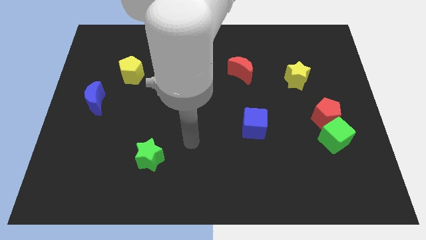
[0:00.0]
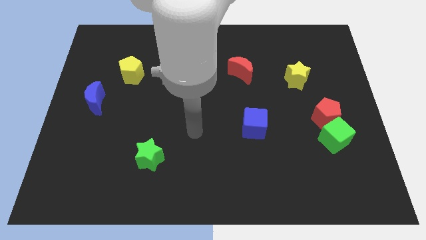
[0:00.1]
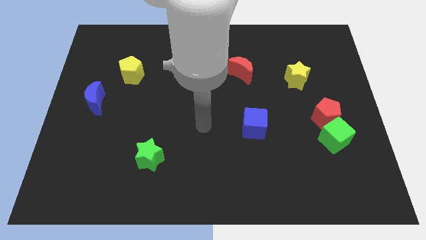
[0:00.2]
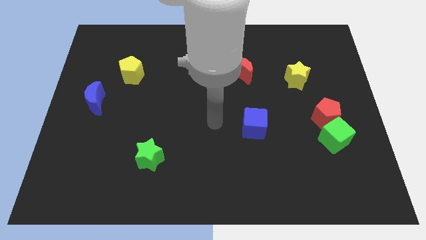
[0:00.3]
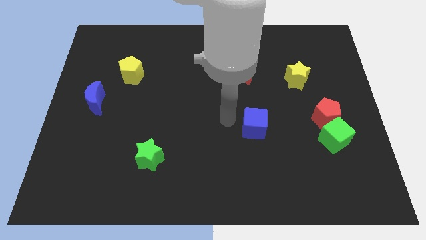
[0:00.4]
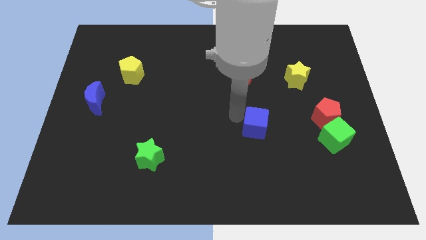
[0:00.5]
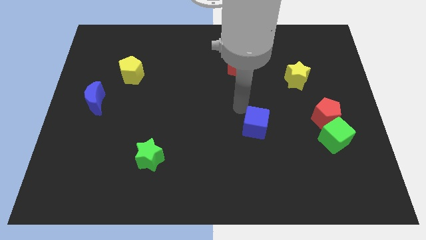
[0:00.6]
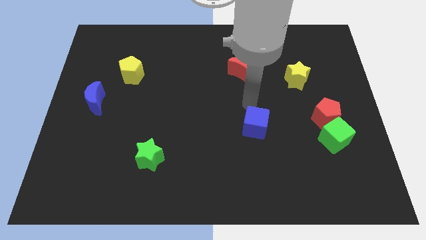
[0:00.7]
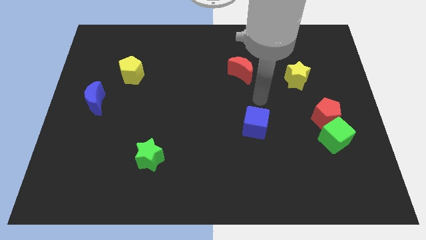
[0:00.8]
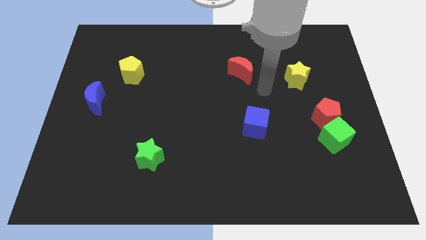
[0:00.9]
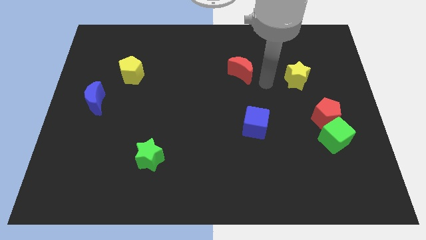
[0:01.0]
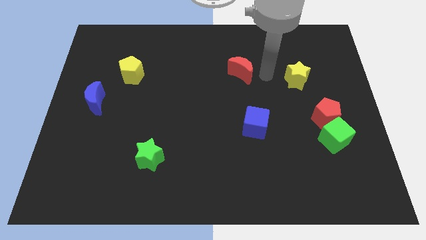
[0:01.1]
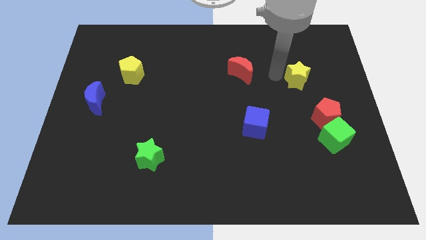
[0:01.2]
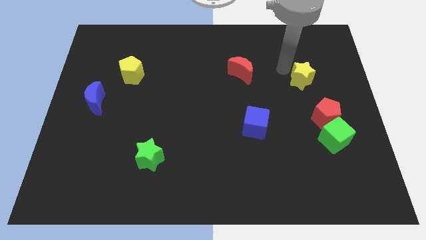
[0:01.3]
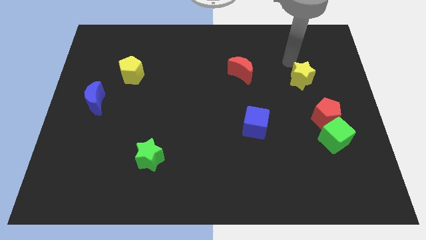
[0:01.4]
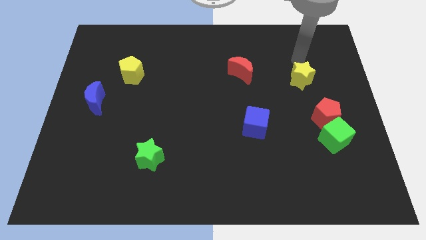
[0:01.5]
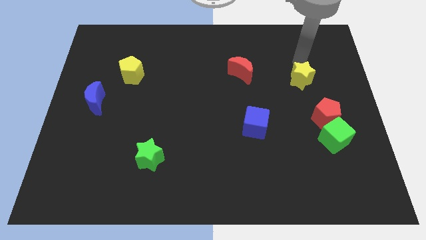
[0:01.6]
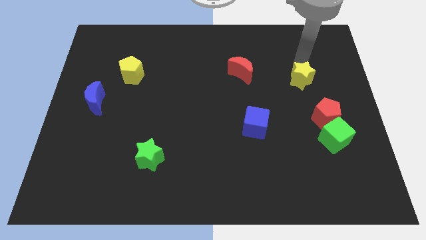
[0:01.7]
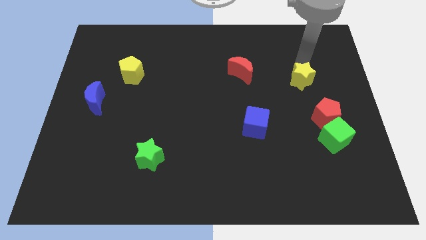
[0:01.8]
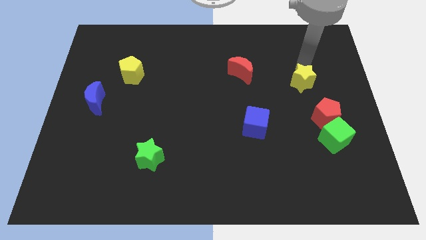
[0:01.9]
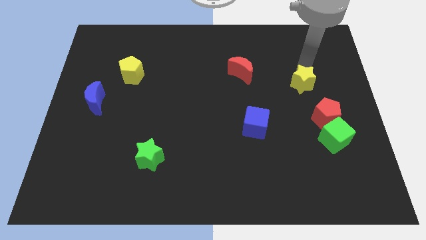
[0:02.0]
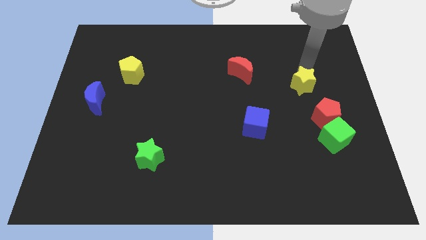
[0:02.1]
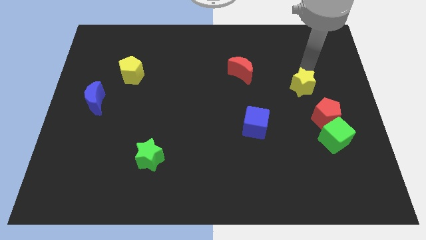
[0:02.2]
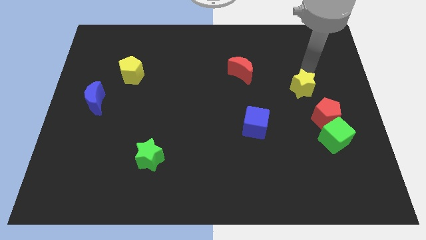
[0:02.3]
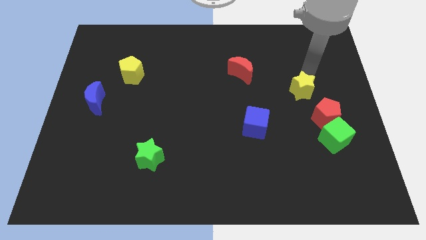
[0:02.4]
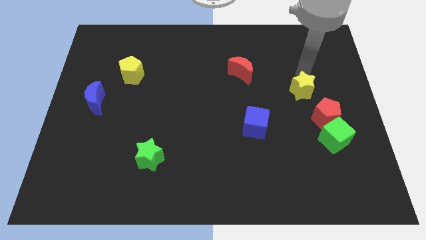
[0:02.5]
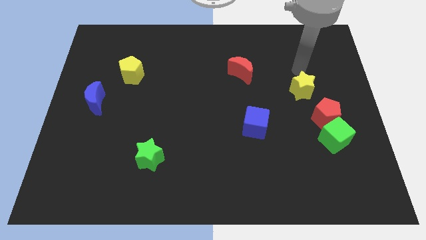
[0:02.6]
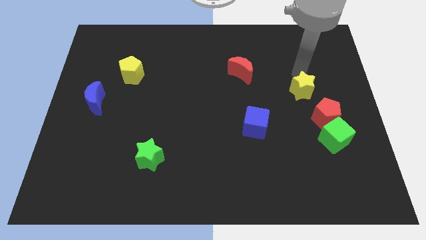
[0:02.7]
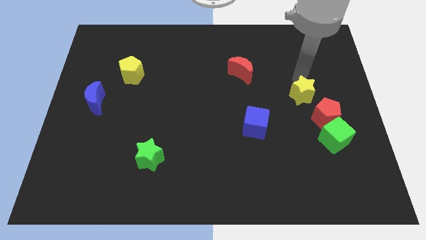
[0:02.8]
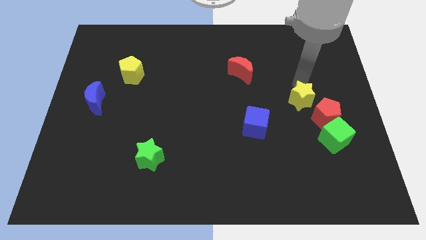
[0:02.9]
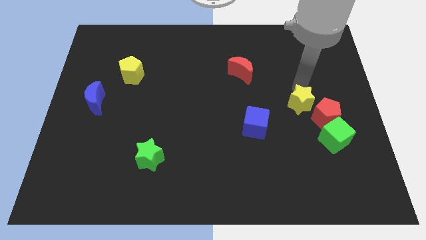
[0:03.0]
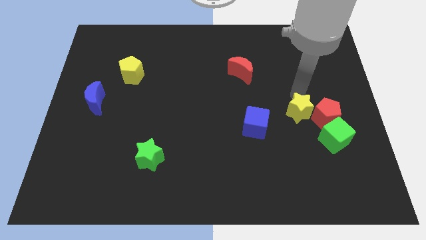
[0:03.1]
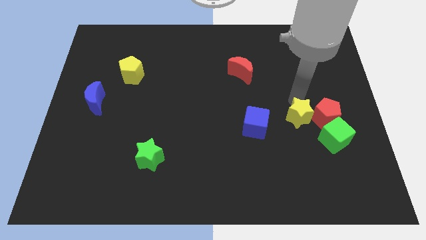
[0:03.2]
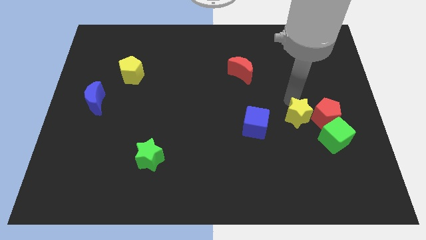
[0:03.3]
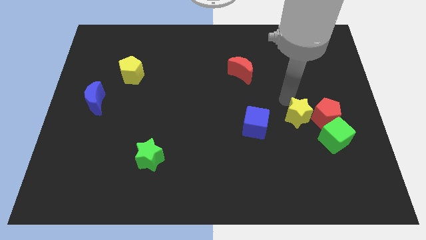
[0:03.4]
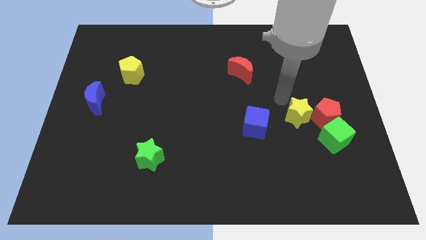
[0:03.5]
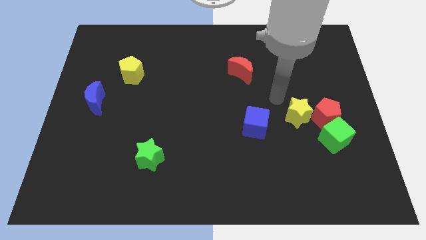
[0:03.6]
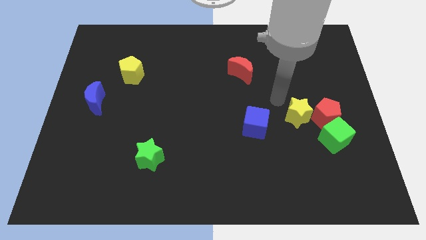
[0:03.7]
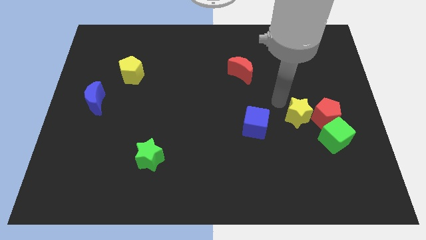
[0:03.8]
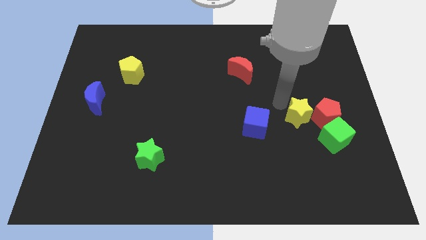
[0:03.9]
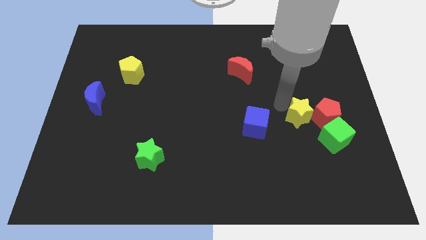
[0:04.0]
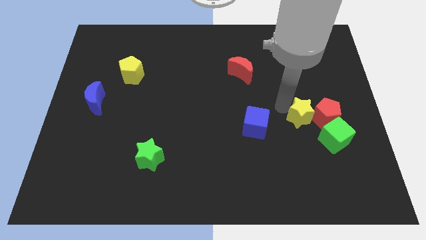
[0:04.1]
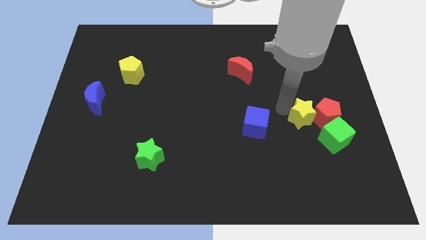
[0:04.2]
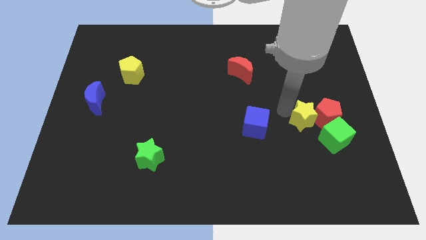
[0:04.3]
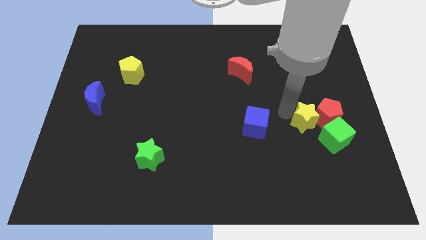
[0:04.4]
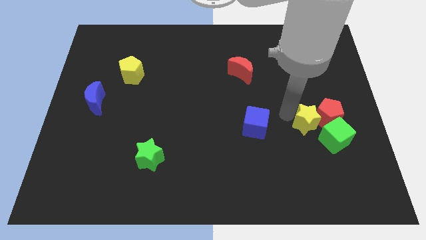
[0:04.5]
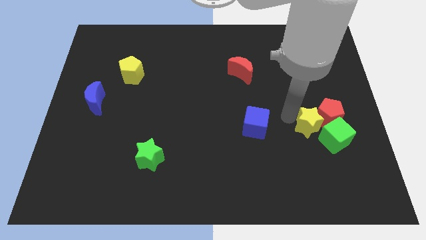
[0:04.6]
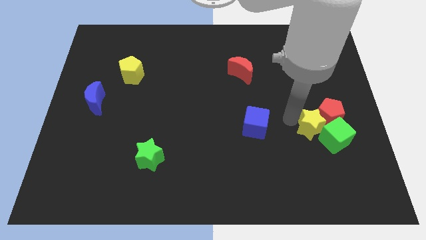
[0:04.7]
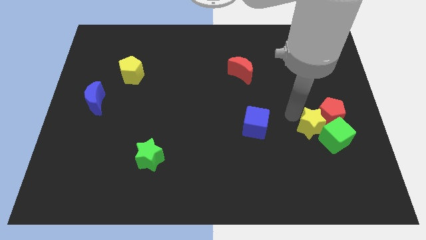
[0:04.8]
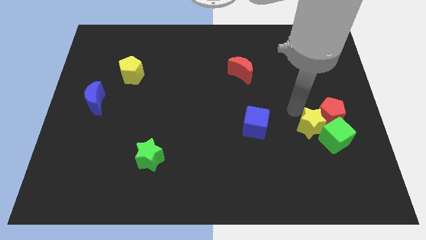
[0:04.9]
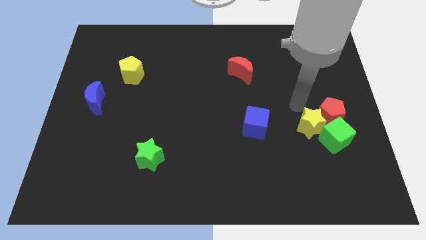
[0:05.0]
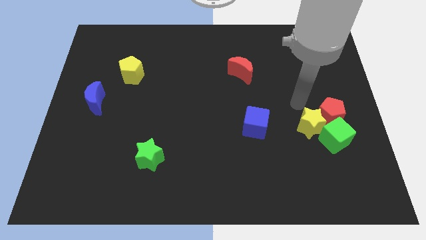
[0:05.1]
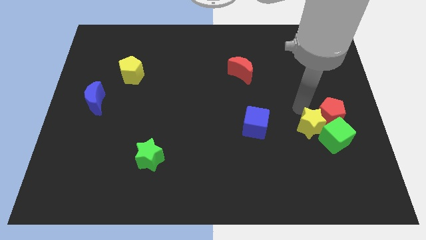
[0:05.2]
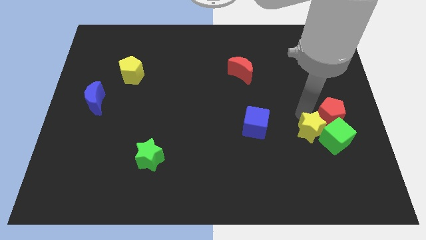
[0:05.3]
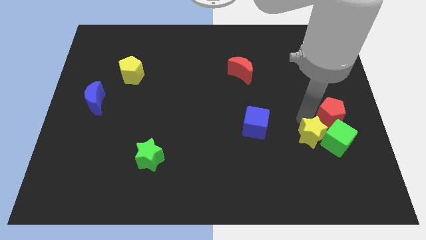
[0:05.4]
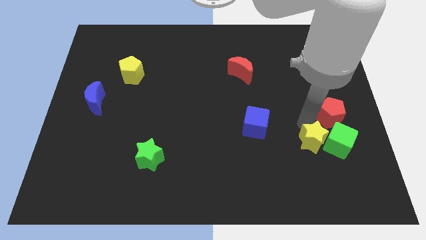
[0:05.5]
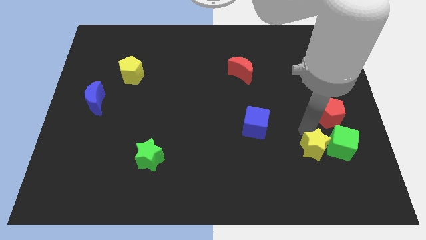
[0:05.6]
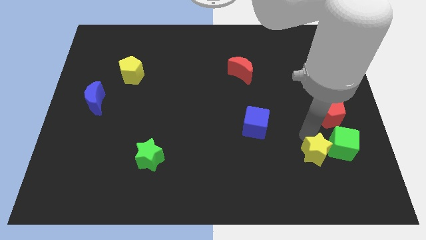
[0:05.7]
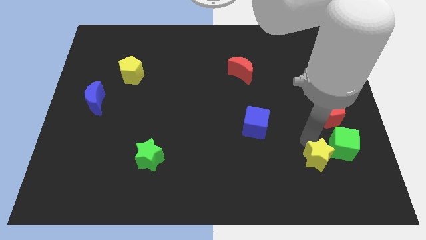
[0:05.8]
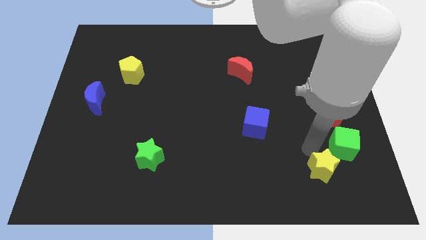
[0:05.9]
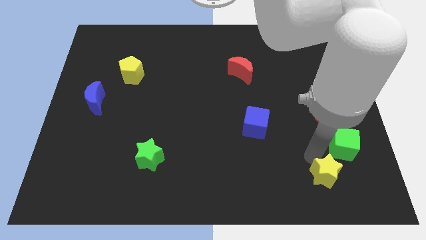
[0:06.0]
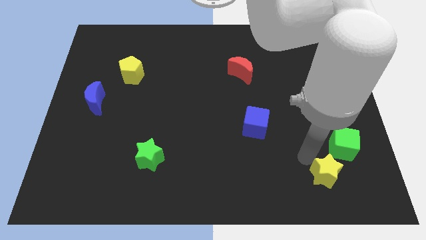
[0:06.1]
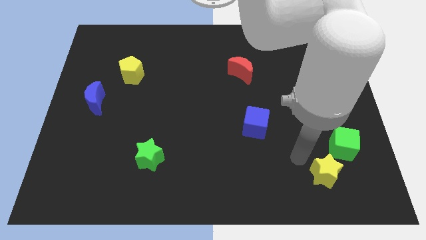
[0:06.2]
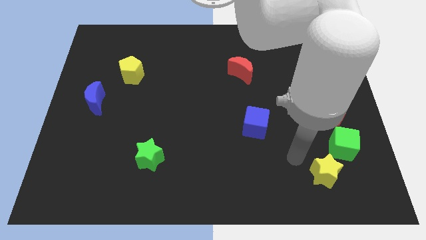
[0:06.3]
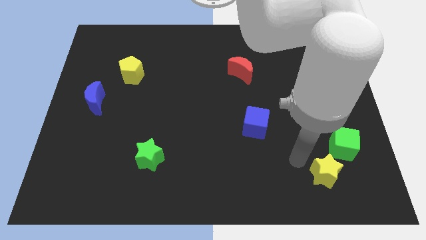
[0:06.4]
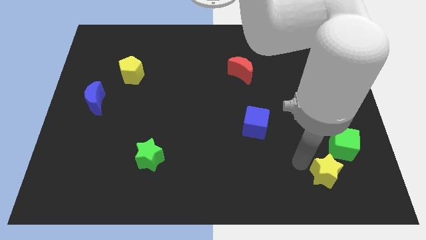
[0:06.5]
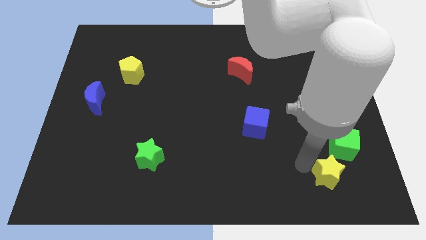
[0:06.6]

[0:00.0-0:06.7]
slide the yellow star to the bottom of the green cube

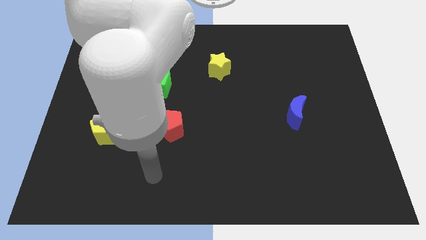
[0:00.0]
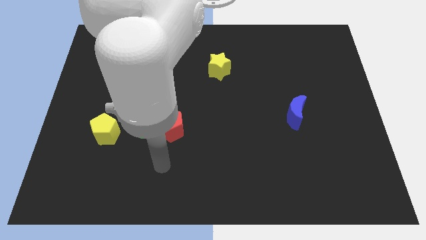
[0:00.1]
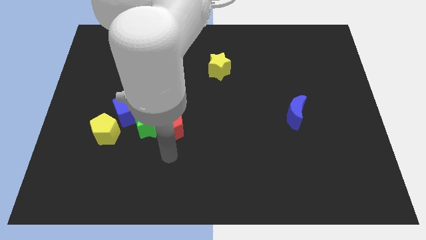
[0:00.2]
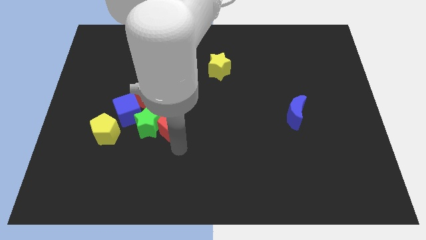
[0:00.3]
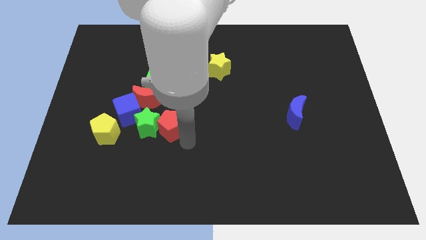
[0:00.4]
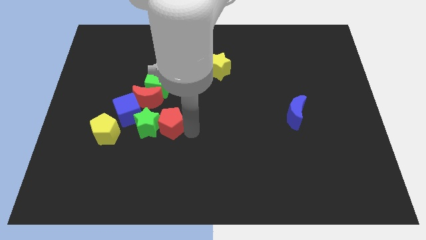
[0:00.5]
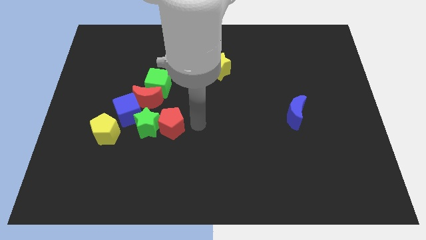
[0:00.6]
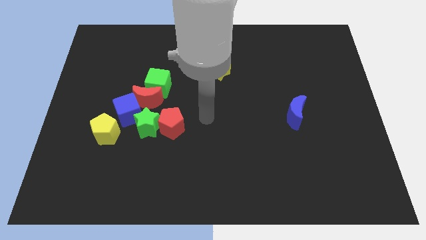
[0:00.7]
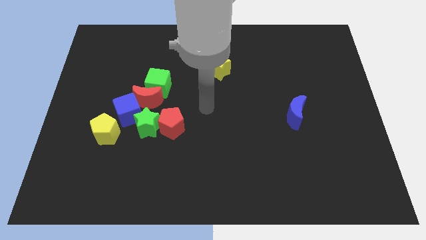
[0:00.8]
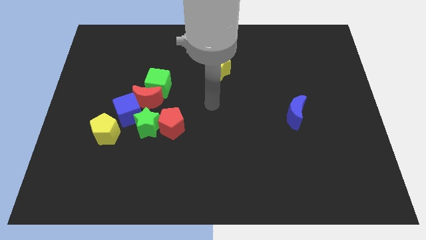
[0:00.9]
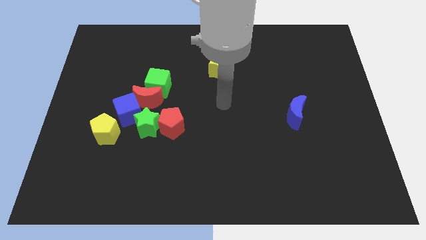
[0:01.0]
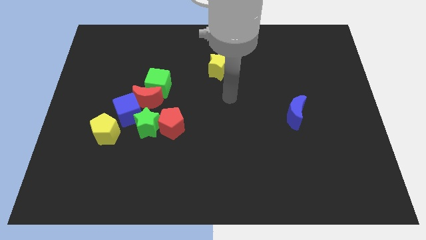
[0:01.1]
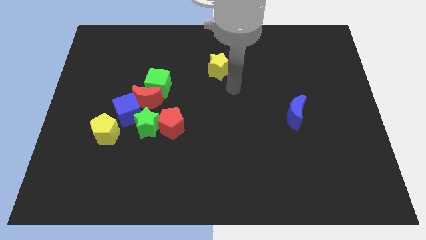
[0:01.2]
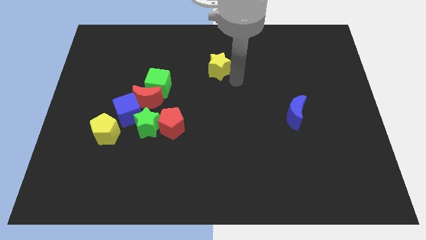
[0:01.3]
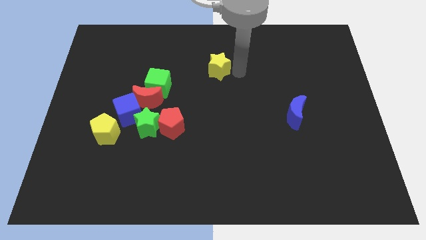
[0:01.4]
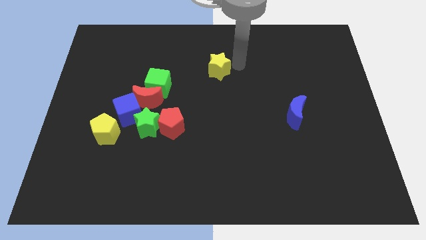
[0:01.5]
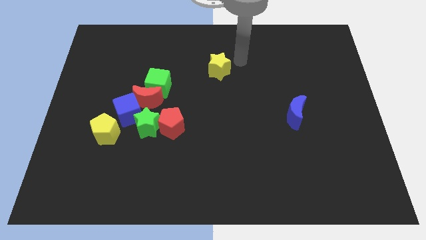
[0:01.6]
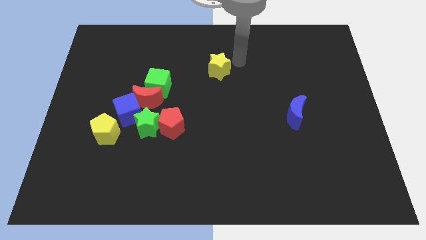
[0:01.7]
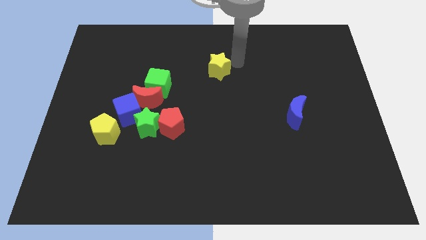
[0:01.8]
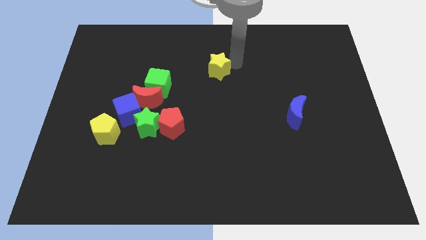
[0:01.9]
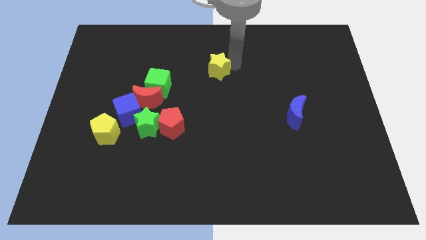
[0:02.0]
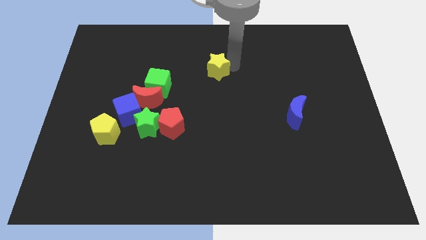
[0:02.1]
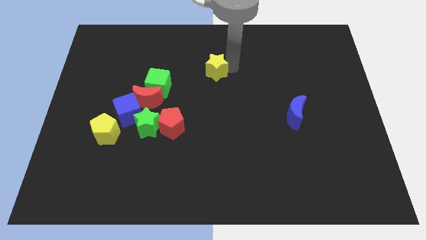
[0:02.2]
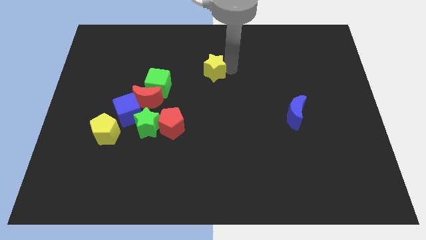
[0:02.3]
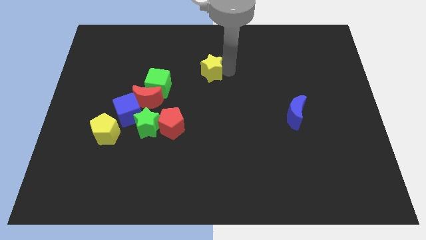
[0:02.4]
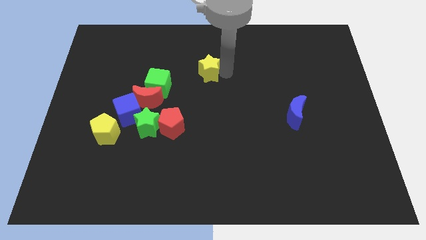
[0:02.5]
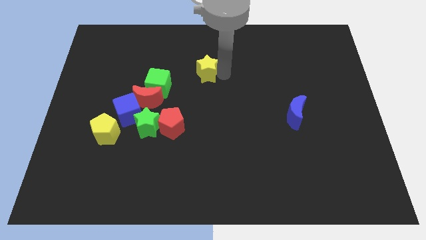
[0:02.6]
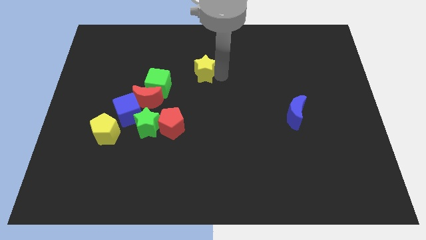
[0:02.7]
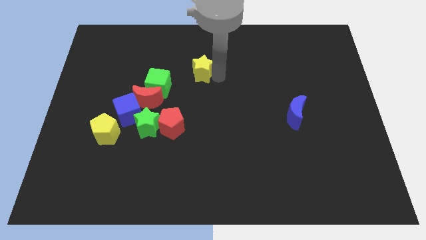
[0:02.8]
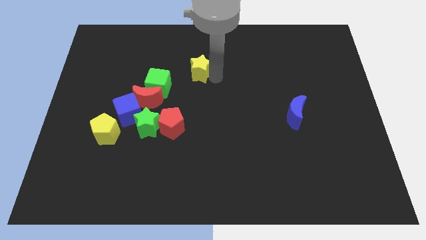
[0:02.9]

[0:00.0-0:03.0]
slide the yellow star to the top right side of the green cube
